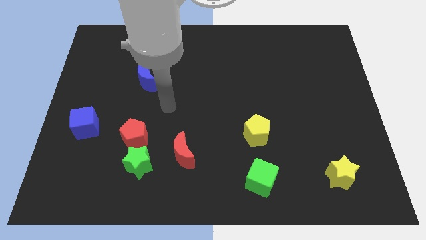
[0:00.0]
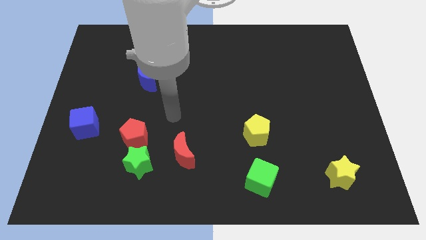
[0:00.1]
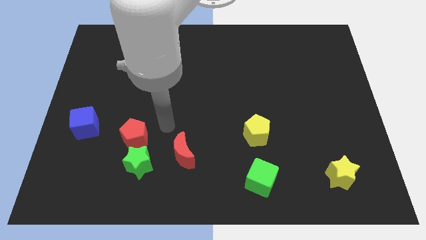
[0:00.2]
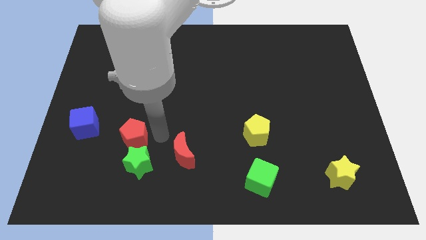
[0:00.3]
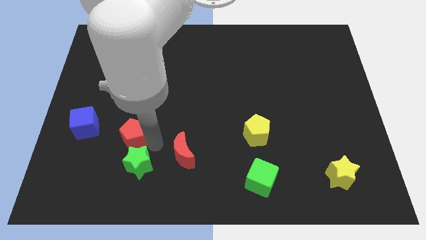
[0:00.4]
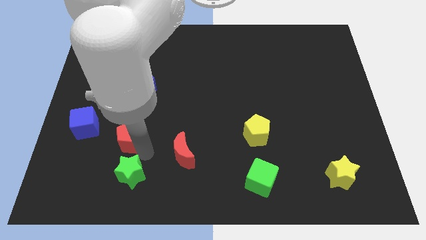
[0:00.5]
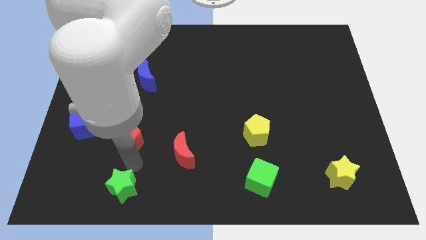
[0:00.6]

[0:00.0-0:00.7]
separate the red pentagon from the green star

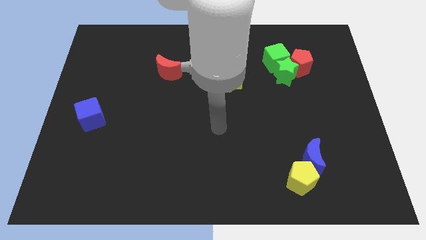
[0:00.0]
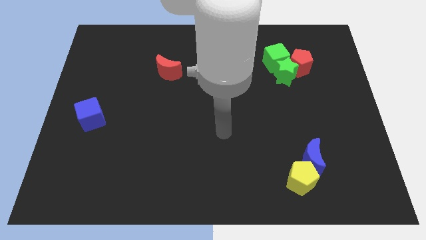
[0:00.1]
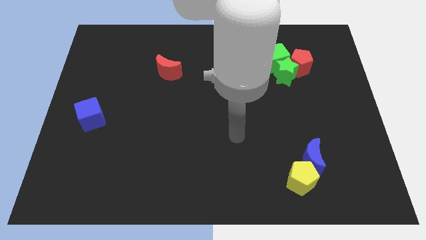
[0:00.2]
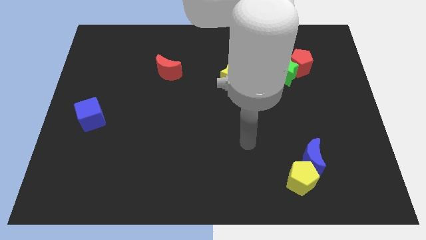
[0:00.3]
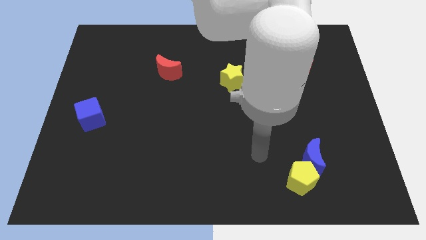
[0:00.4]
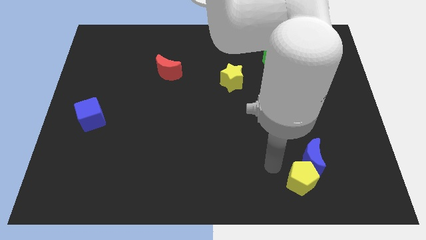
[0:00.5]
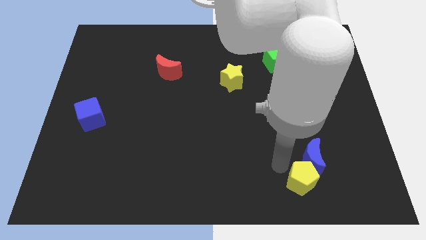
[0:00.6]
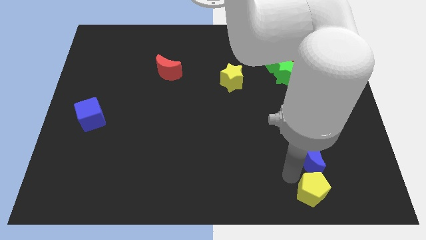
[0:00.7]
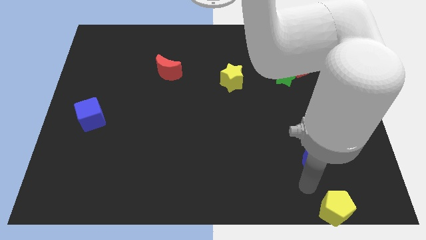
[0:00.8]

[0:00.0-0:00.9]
move the blue moon away from the yellow pentagon

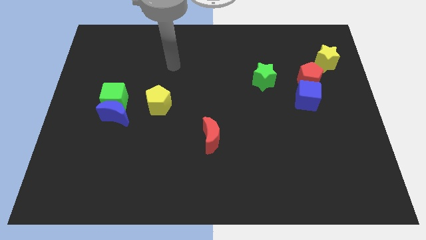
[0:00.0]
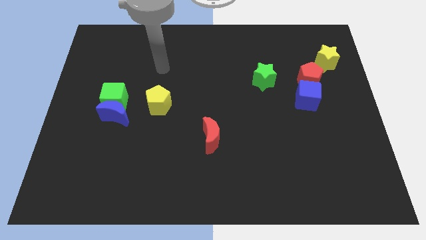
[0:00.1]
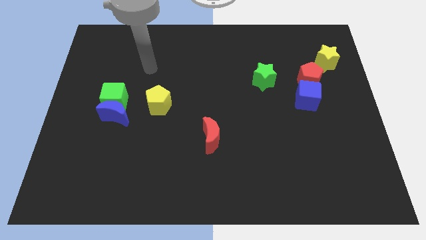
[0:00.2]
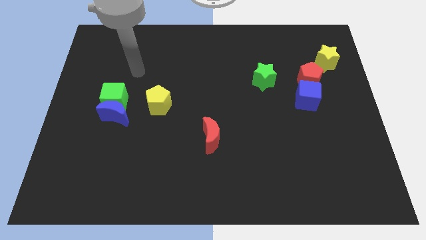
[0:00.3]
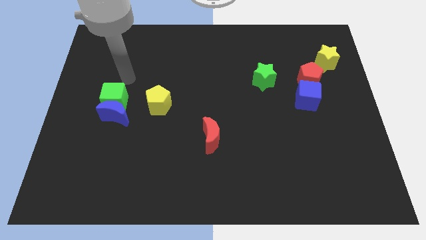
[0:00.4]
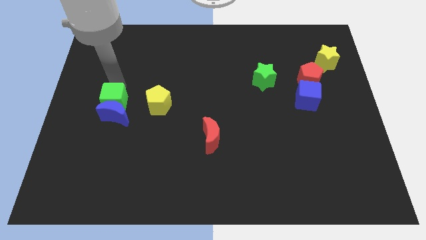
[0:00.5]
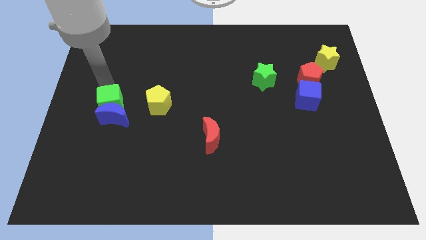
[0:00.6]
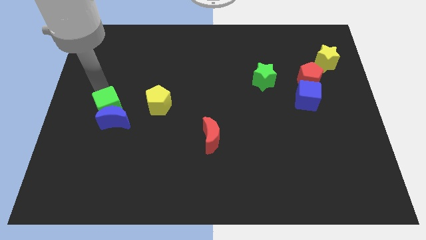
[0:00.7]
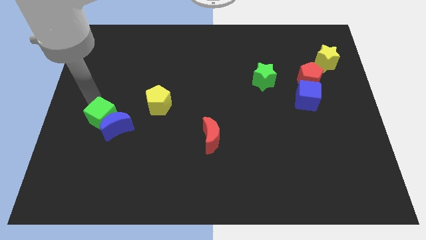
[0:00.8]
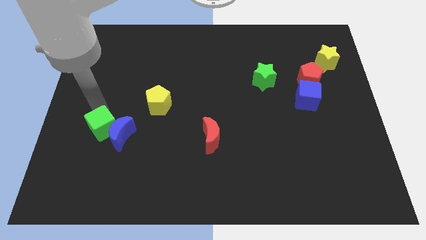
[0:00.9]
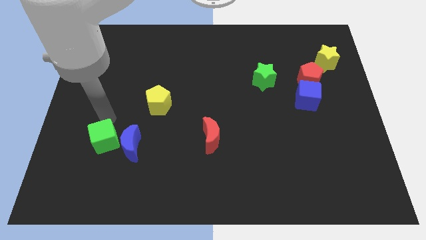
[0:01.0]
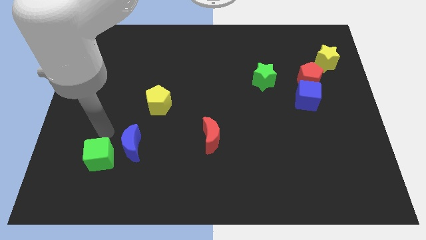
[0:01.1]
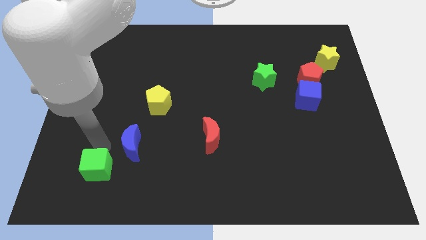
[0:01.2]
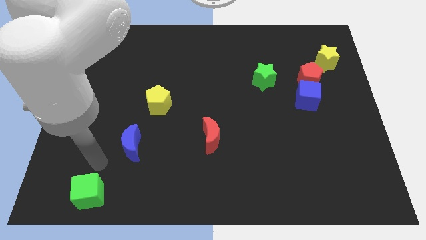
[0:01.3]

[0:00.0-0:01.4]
pull the green cube apart from the blue moon

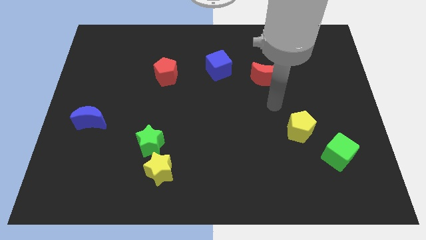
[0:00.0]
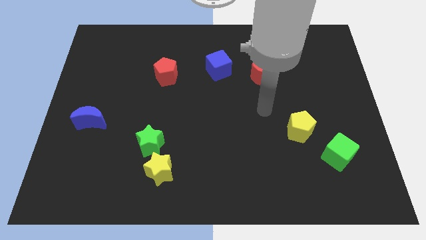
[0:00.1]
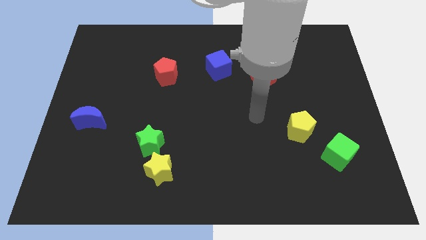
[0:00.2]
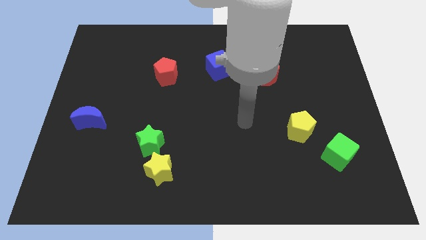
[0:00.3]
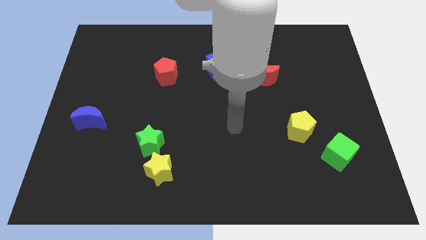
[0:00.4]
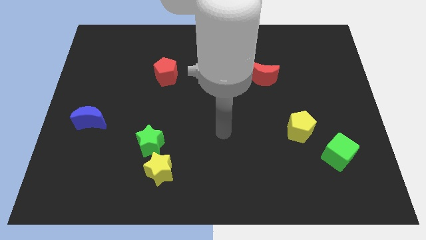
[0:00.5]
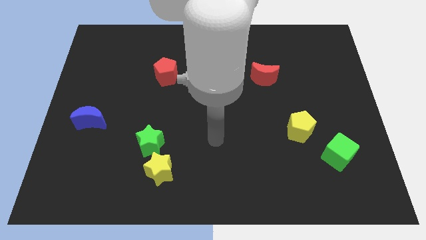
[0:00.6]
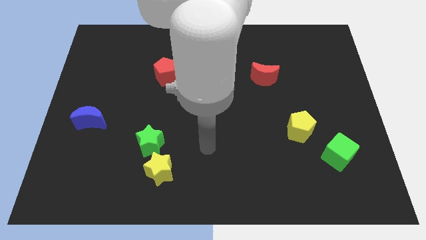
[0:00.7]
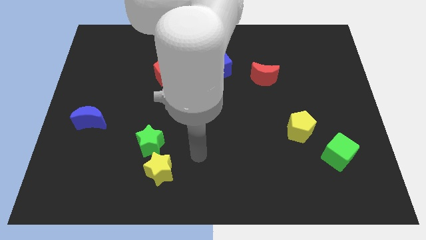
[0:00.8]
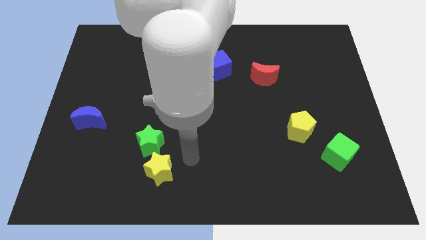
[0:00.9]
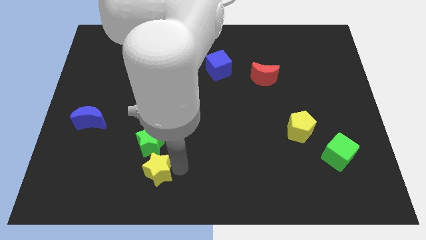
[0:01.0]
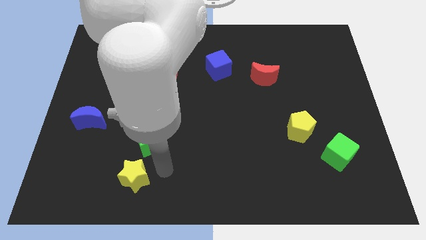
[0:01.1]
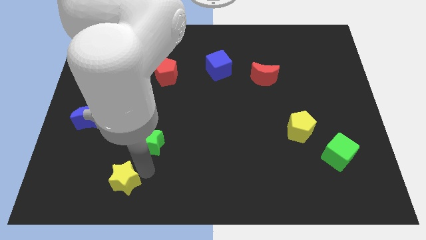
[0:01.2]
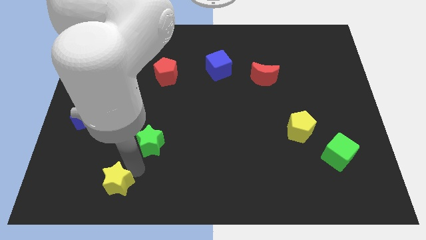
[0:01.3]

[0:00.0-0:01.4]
separate the green star from the yellow star

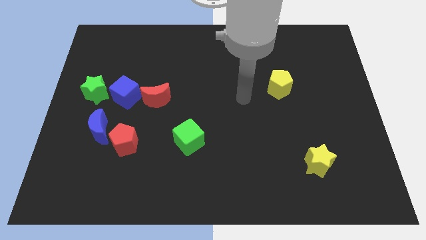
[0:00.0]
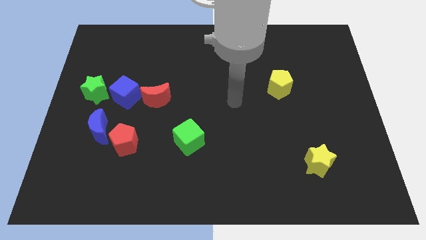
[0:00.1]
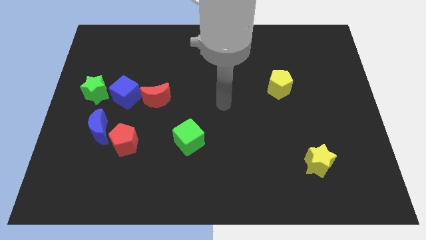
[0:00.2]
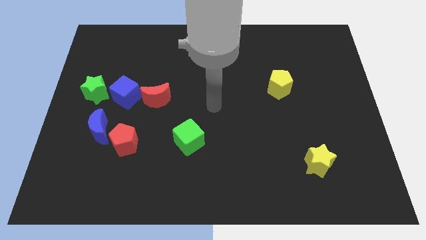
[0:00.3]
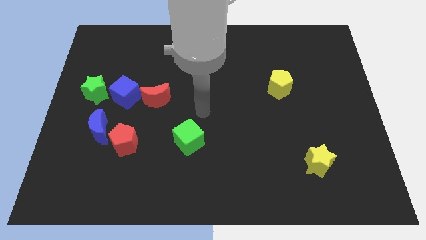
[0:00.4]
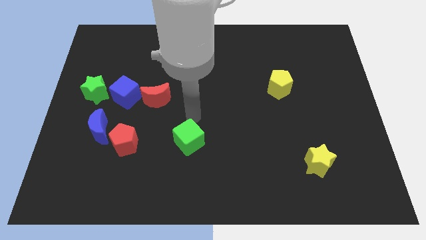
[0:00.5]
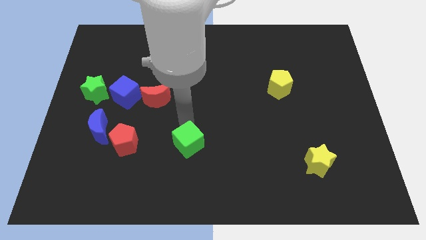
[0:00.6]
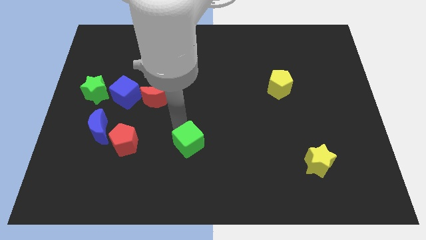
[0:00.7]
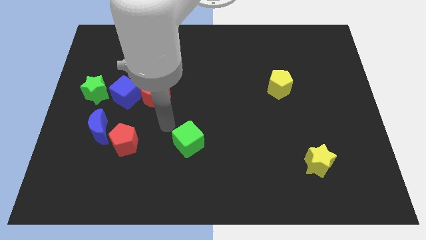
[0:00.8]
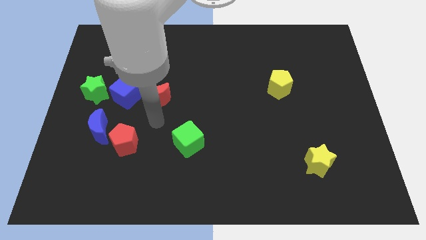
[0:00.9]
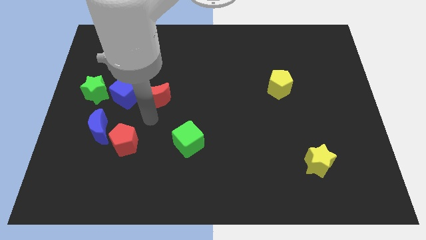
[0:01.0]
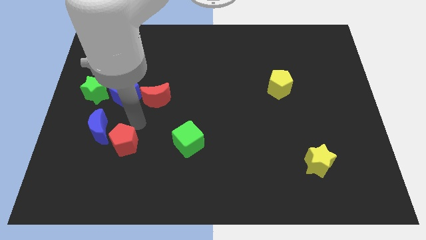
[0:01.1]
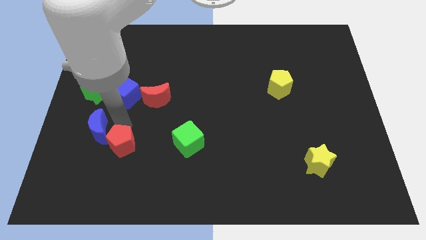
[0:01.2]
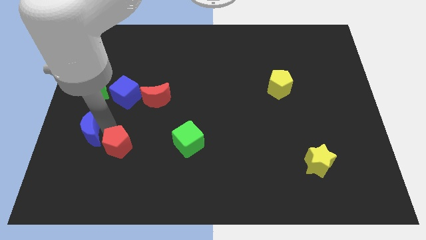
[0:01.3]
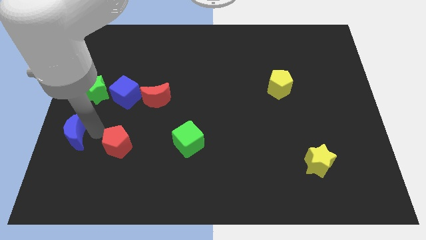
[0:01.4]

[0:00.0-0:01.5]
move the red pentagon away from the blue moon

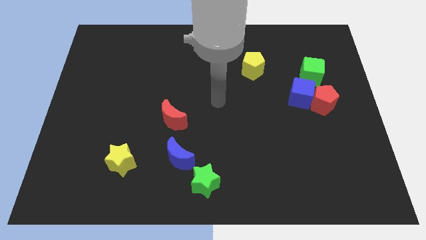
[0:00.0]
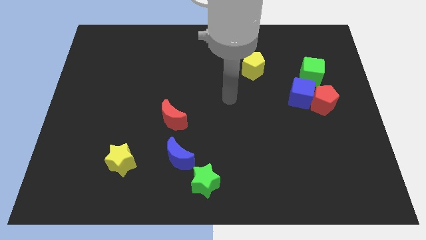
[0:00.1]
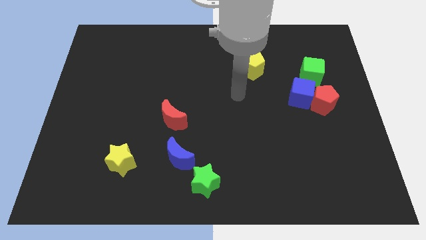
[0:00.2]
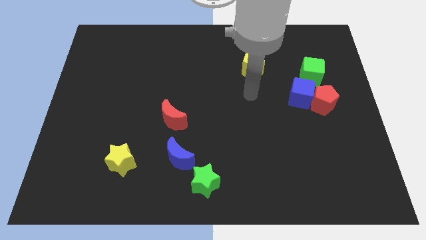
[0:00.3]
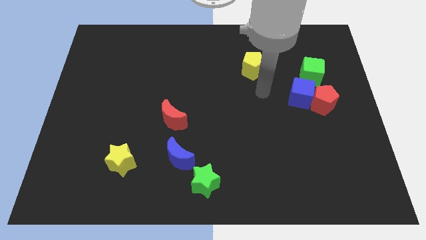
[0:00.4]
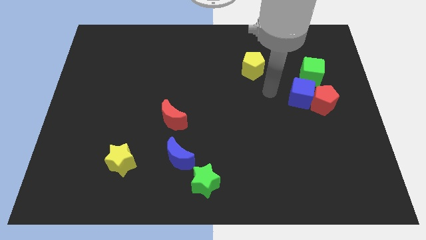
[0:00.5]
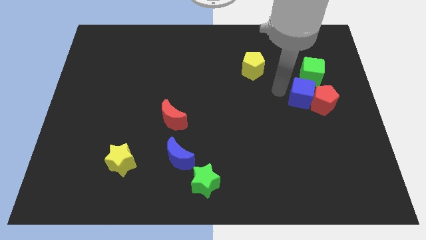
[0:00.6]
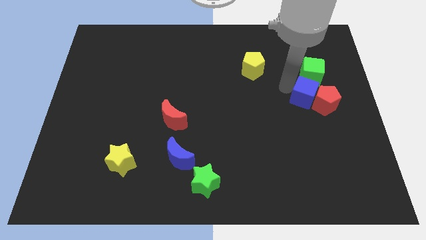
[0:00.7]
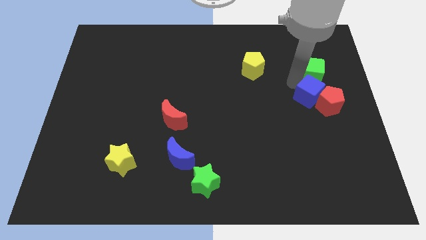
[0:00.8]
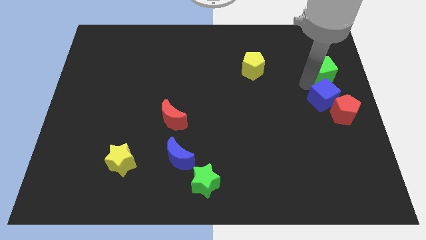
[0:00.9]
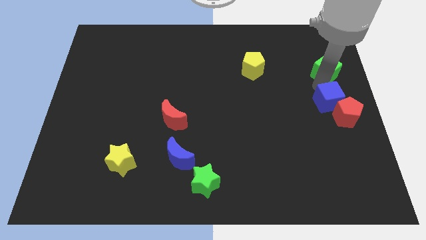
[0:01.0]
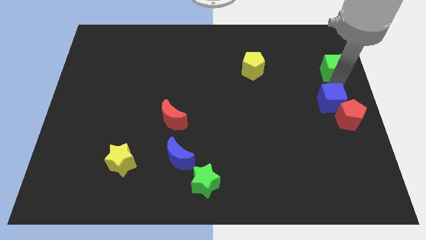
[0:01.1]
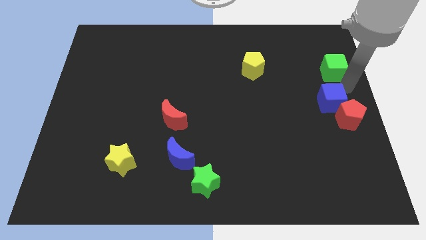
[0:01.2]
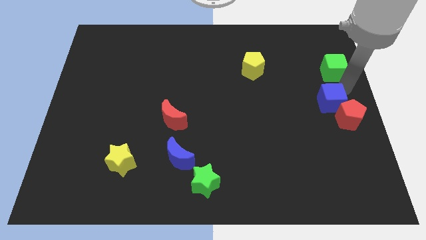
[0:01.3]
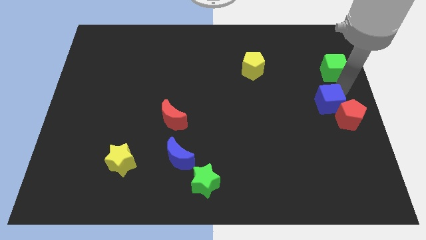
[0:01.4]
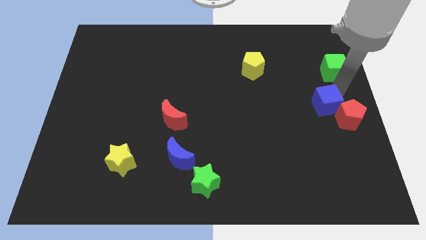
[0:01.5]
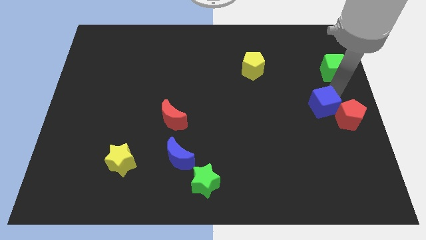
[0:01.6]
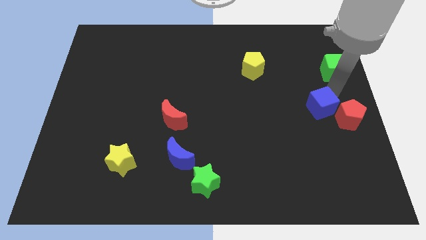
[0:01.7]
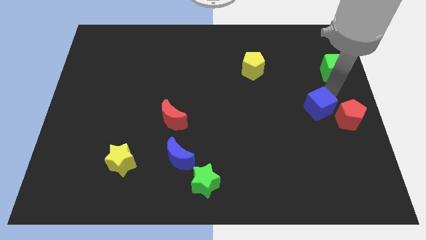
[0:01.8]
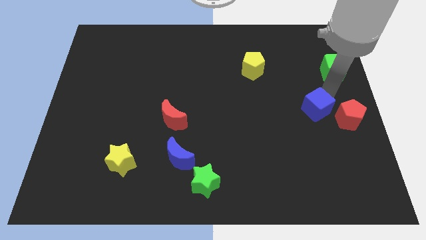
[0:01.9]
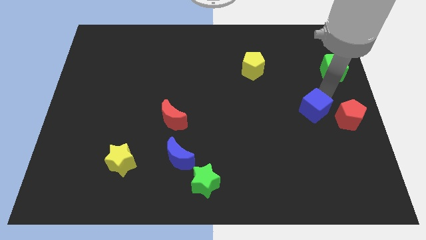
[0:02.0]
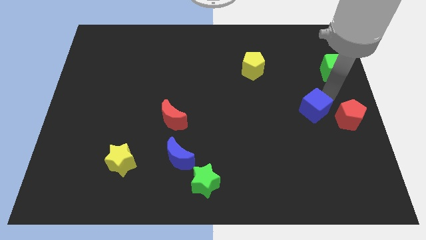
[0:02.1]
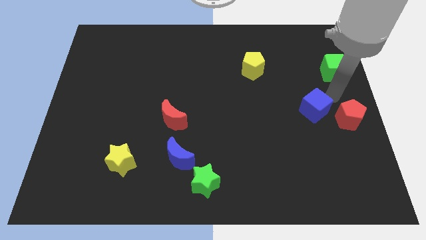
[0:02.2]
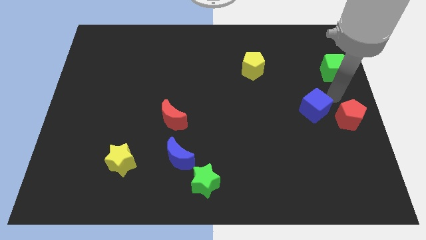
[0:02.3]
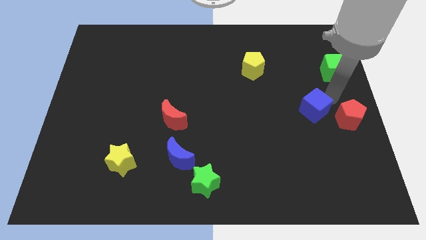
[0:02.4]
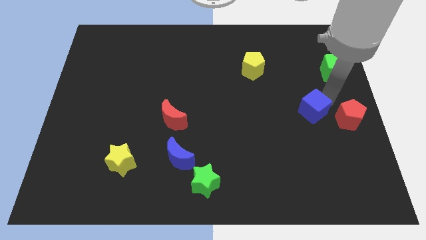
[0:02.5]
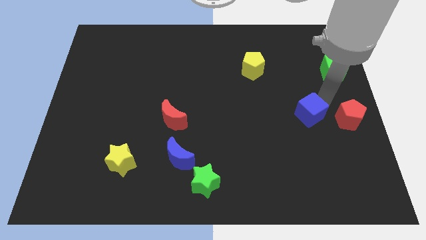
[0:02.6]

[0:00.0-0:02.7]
separate the blue cube from the red pentagon and green cube

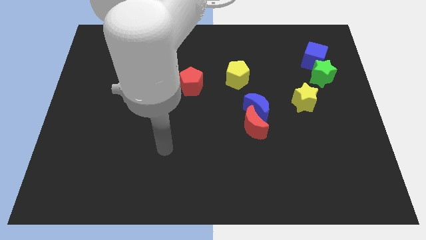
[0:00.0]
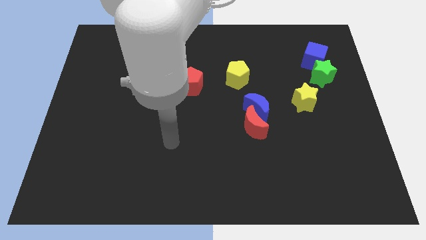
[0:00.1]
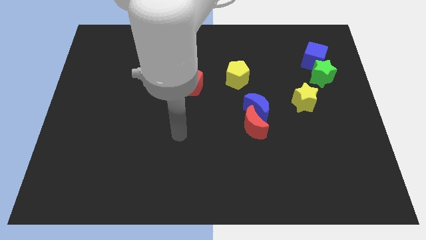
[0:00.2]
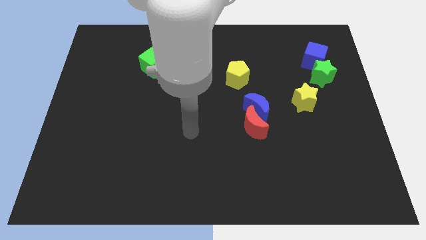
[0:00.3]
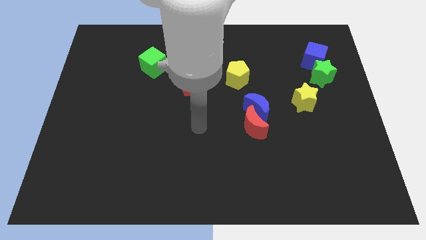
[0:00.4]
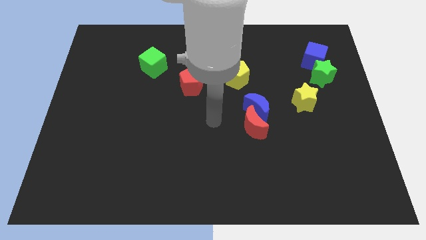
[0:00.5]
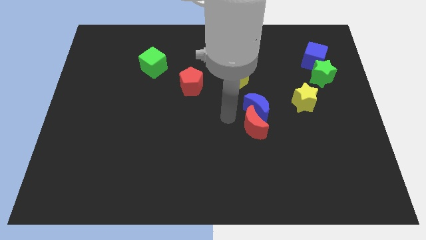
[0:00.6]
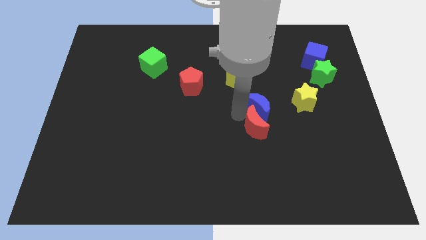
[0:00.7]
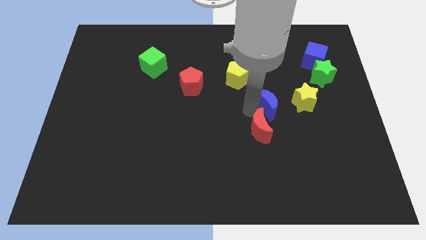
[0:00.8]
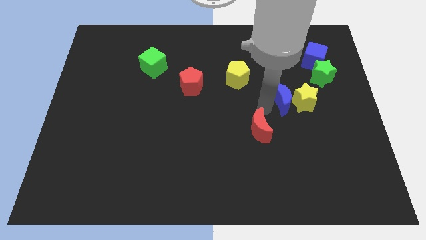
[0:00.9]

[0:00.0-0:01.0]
pull the red moon apart from the blue moon
